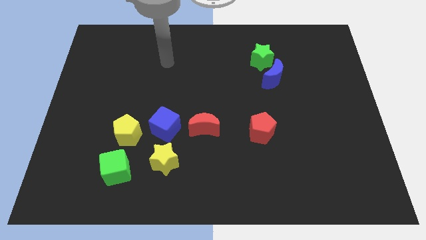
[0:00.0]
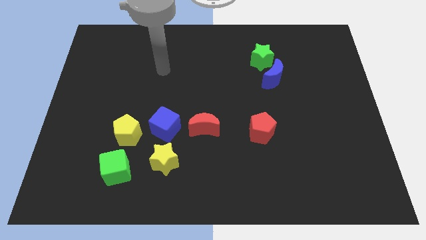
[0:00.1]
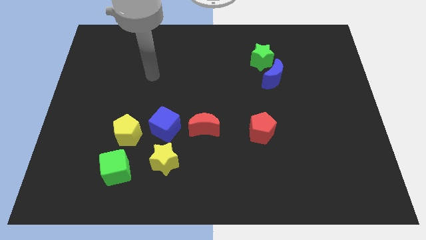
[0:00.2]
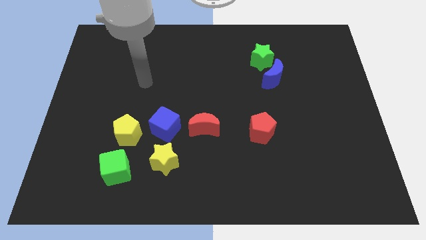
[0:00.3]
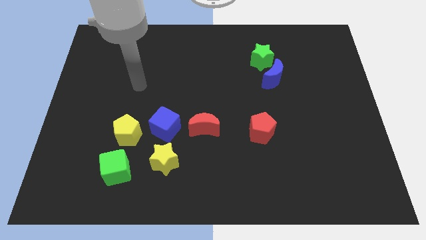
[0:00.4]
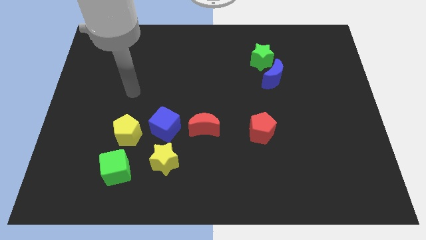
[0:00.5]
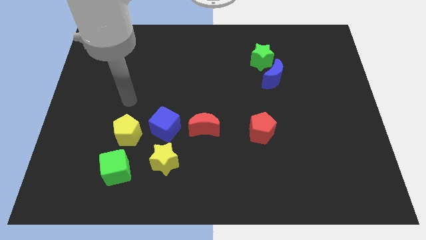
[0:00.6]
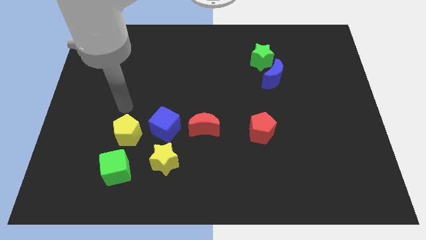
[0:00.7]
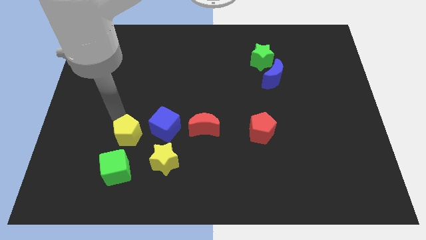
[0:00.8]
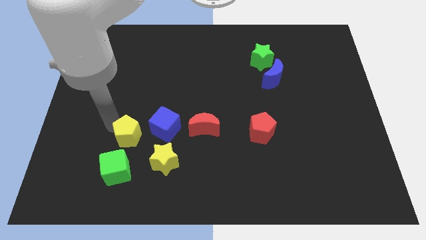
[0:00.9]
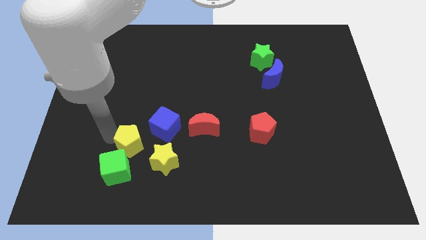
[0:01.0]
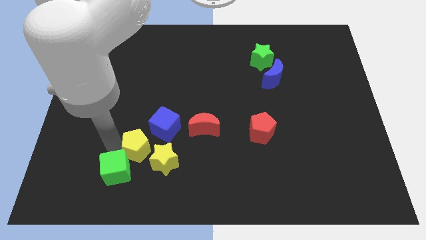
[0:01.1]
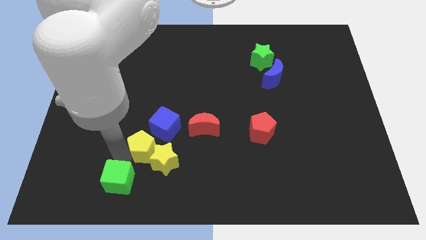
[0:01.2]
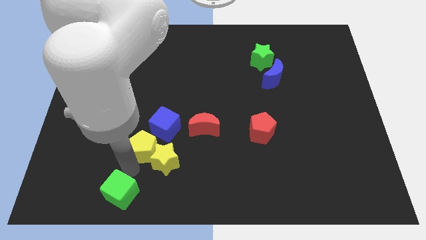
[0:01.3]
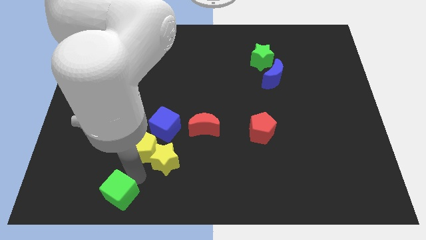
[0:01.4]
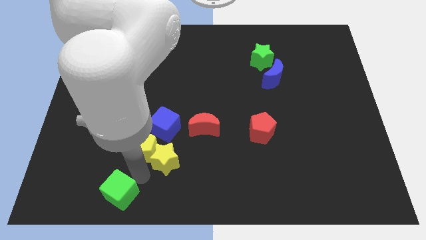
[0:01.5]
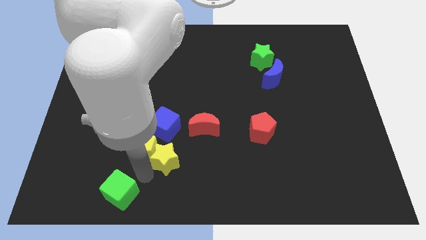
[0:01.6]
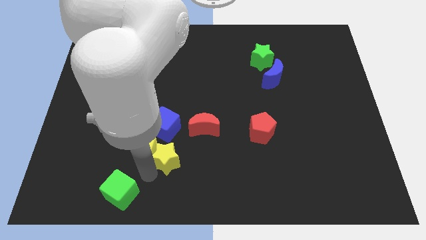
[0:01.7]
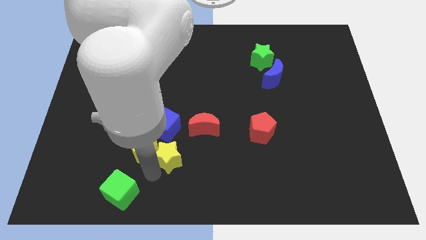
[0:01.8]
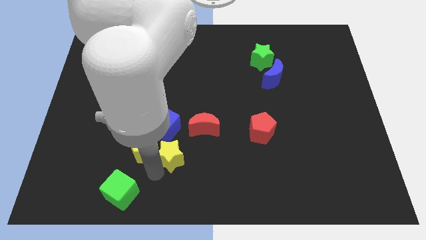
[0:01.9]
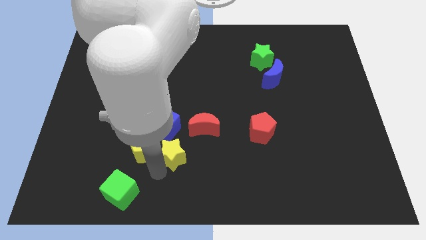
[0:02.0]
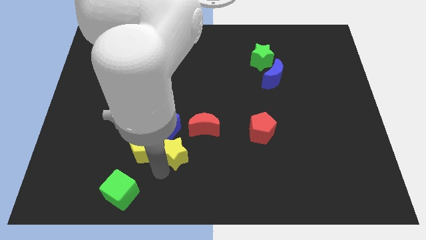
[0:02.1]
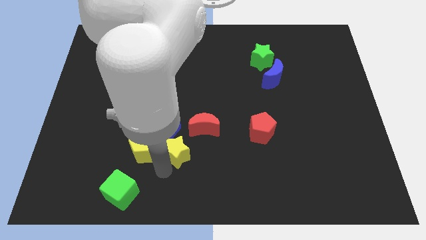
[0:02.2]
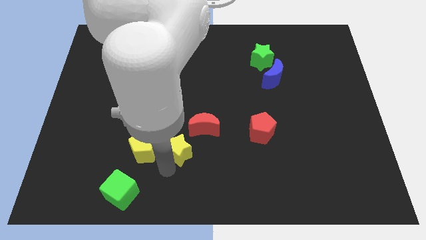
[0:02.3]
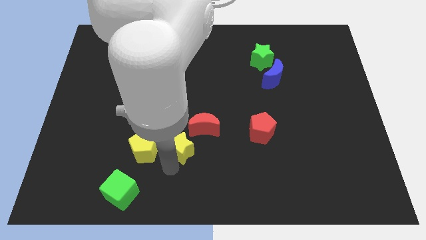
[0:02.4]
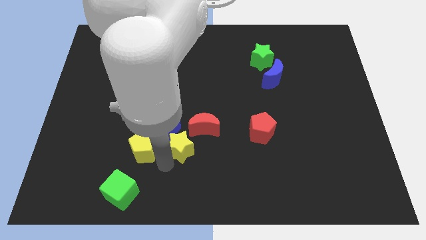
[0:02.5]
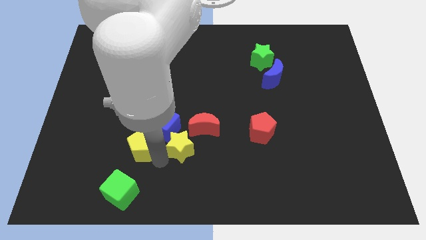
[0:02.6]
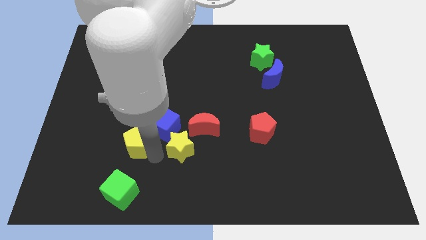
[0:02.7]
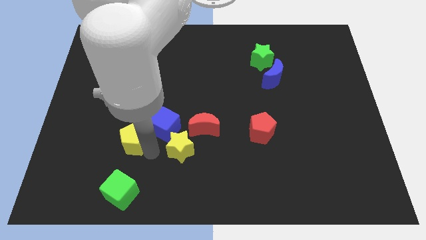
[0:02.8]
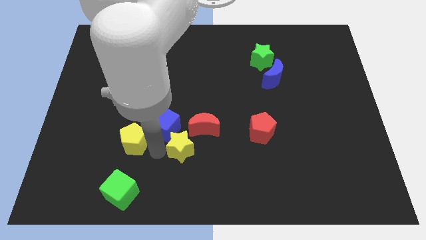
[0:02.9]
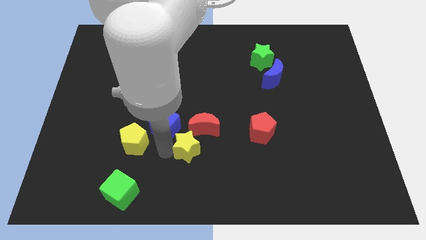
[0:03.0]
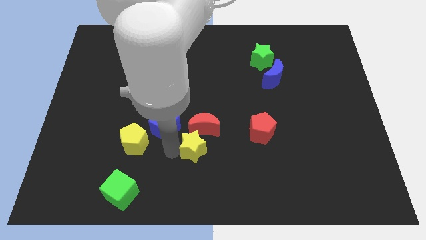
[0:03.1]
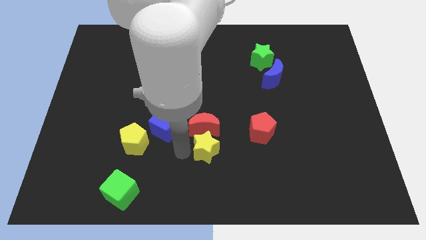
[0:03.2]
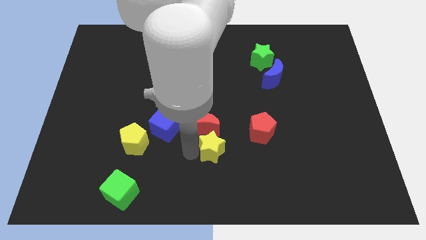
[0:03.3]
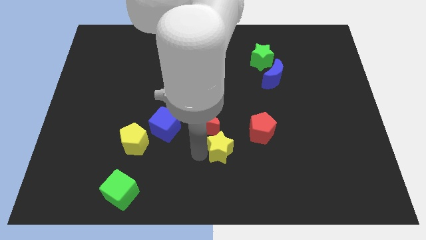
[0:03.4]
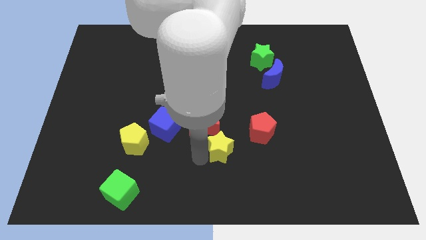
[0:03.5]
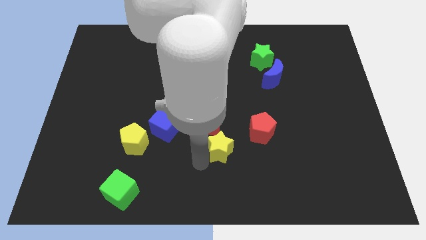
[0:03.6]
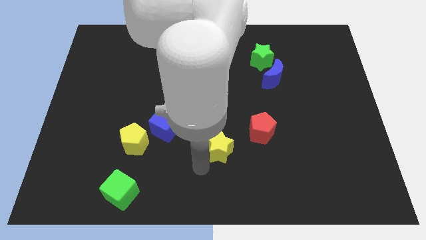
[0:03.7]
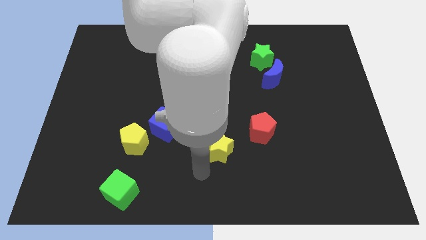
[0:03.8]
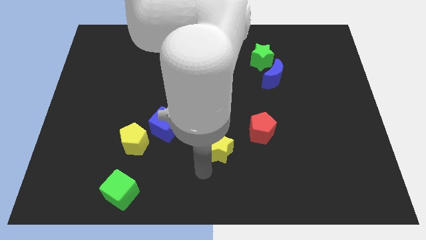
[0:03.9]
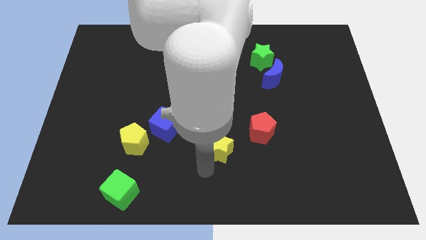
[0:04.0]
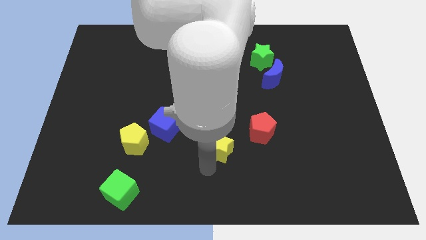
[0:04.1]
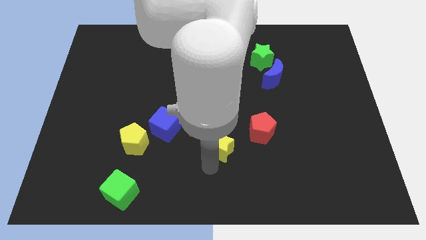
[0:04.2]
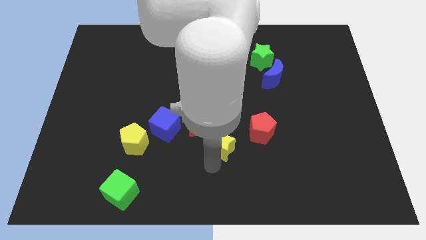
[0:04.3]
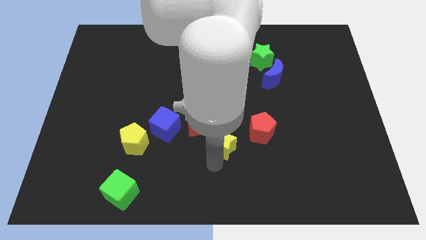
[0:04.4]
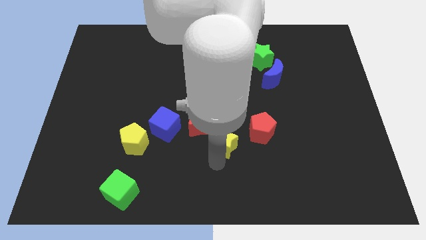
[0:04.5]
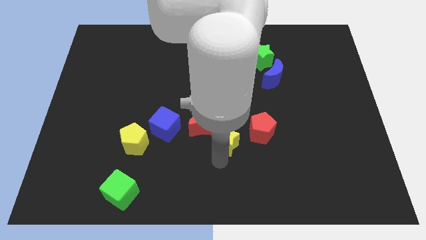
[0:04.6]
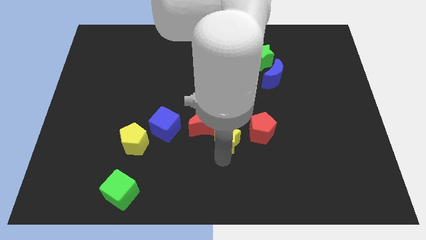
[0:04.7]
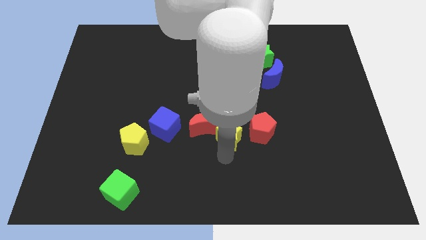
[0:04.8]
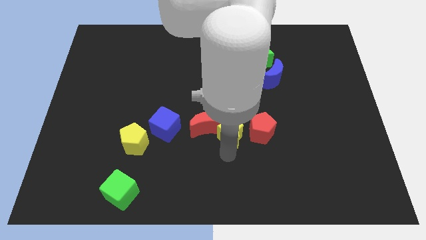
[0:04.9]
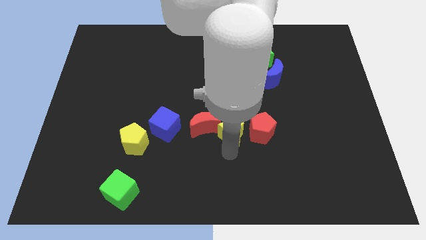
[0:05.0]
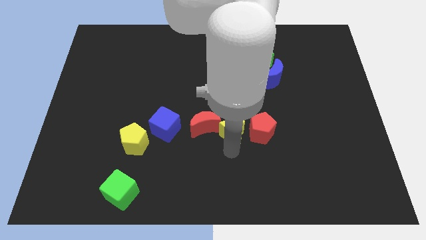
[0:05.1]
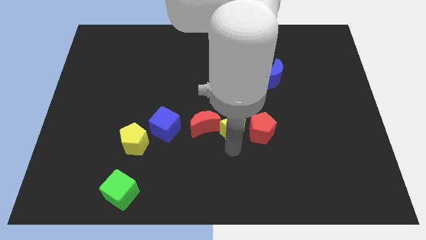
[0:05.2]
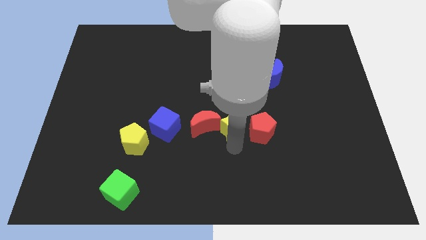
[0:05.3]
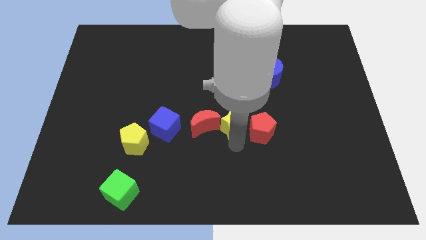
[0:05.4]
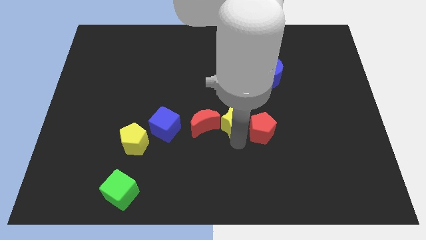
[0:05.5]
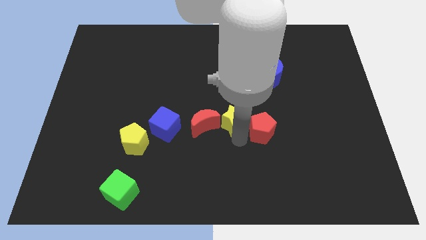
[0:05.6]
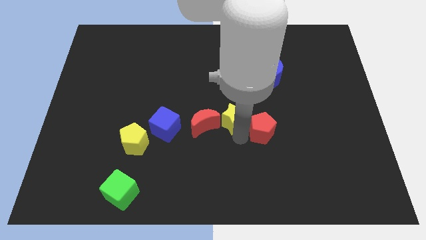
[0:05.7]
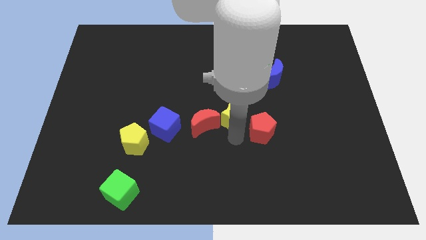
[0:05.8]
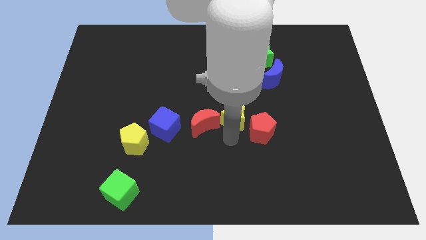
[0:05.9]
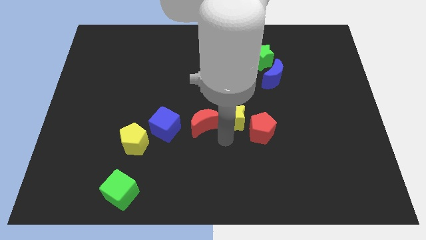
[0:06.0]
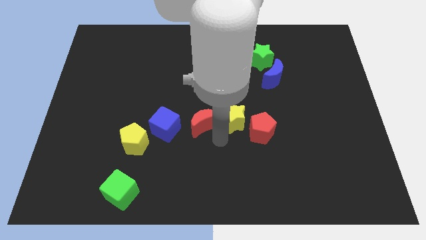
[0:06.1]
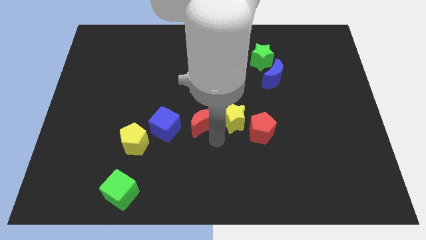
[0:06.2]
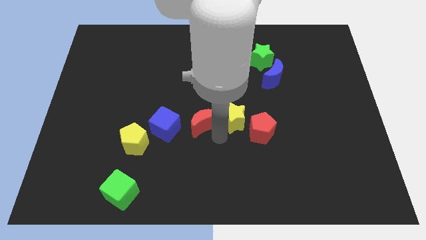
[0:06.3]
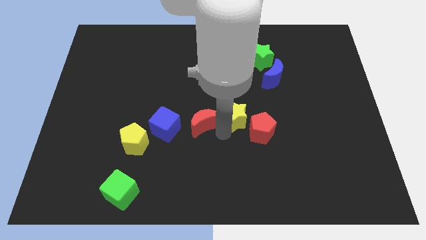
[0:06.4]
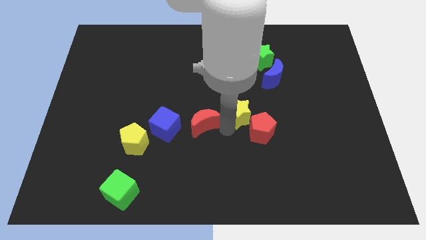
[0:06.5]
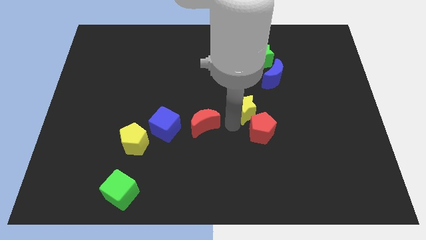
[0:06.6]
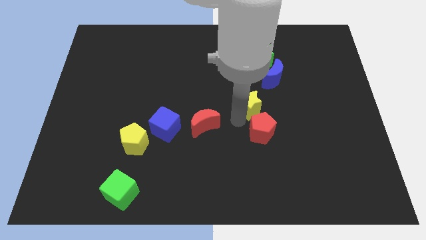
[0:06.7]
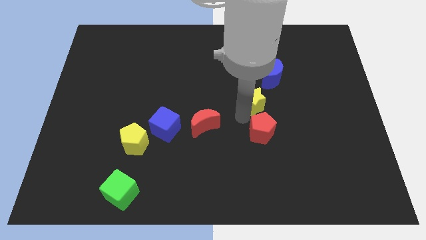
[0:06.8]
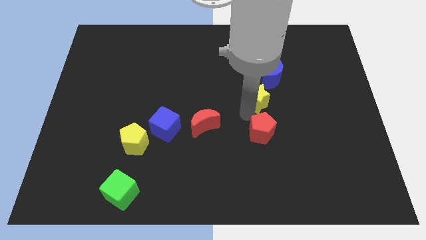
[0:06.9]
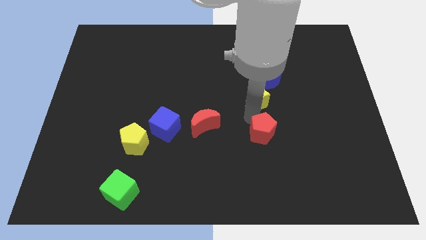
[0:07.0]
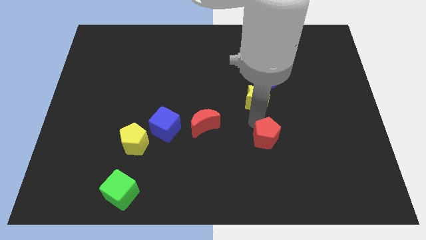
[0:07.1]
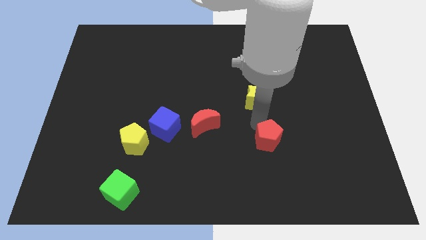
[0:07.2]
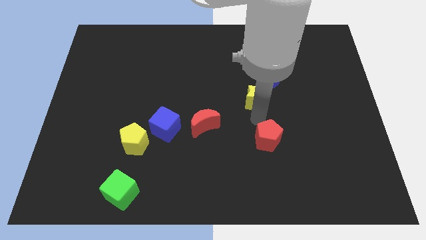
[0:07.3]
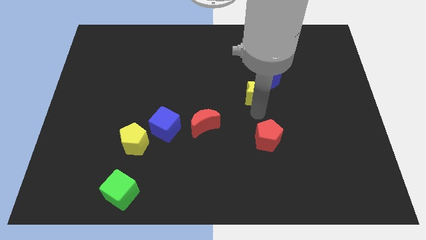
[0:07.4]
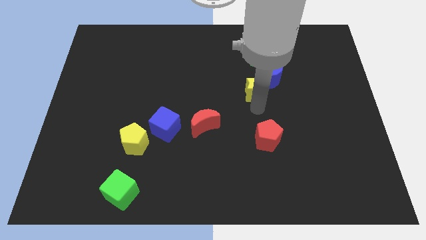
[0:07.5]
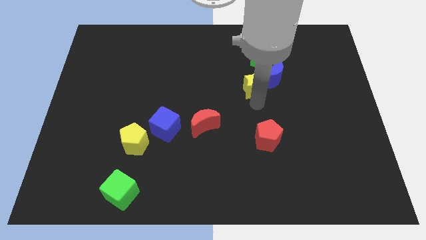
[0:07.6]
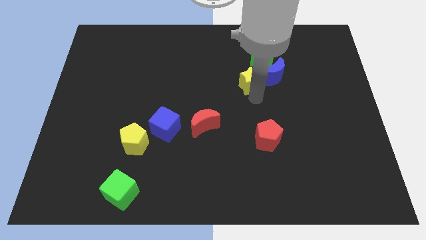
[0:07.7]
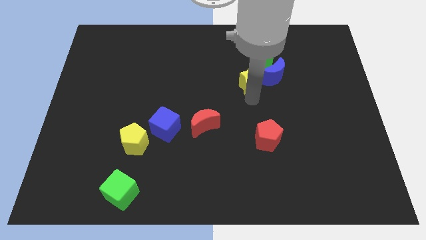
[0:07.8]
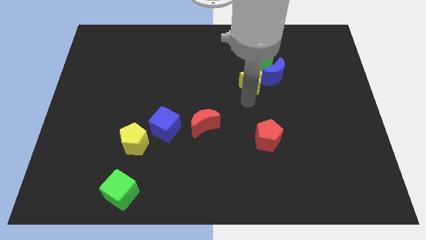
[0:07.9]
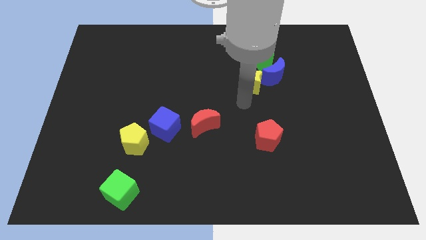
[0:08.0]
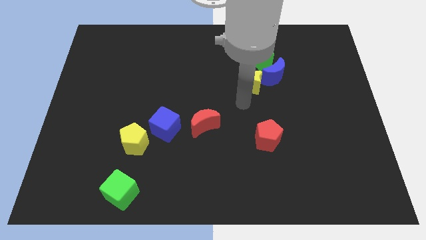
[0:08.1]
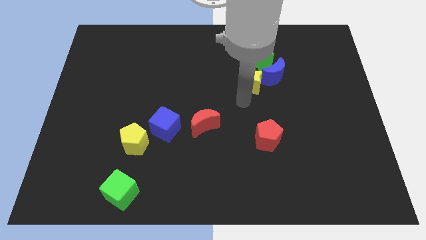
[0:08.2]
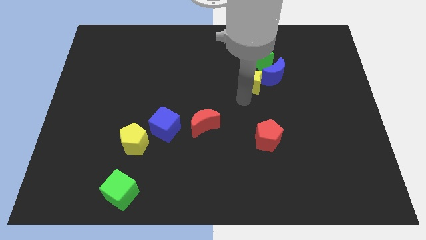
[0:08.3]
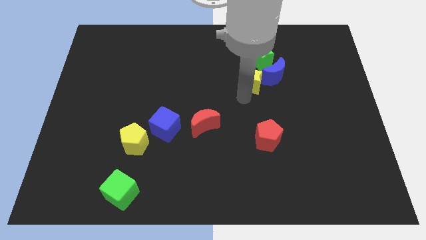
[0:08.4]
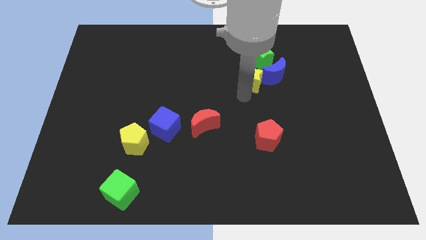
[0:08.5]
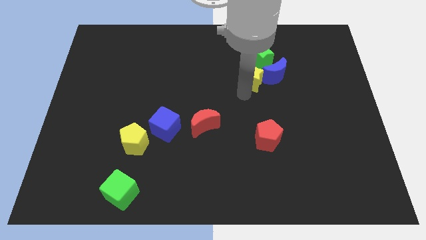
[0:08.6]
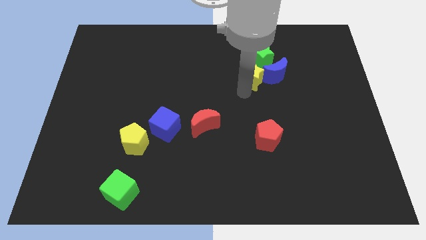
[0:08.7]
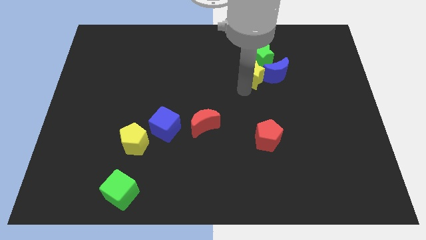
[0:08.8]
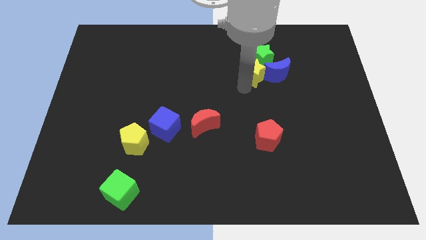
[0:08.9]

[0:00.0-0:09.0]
put the yellow star next to the green star
